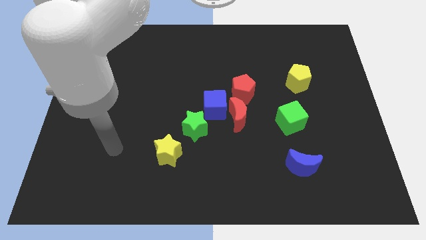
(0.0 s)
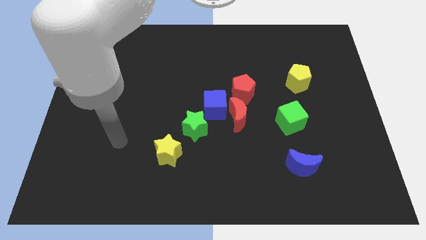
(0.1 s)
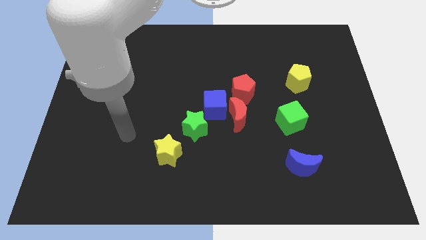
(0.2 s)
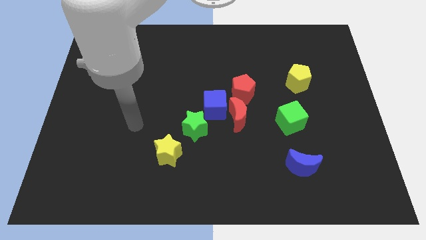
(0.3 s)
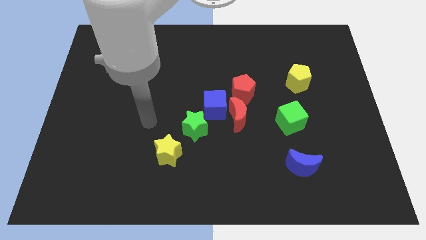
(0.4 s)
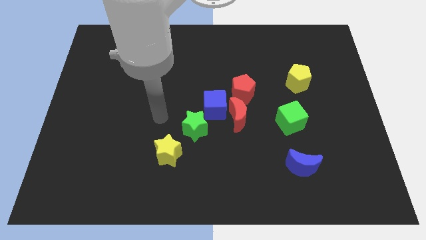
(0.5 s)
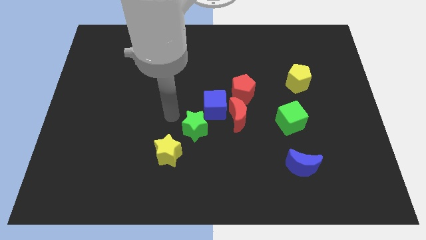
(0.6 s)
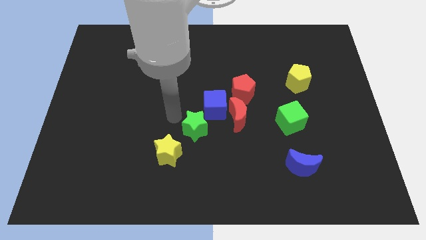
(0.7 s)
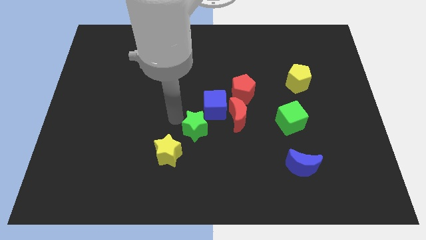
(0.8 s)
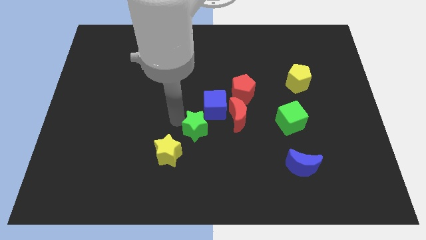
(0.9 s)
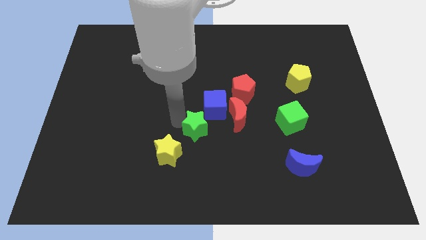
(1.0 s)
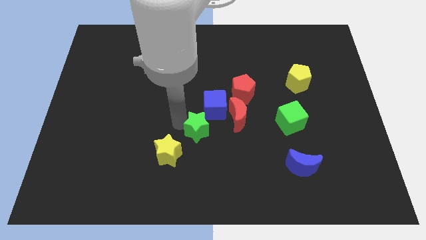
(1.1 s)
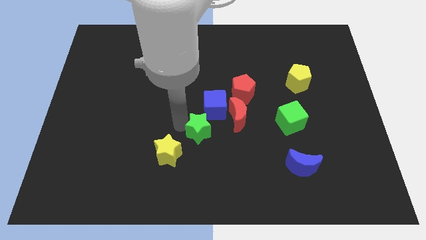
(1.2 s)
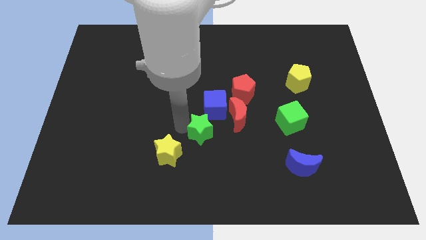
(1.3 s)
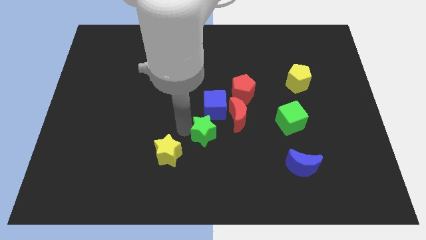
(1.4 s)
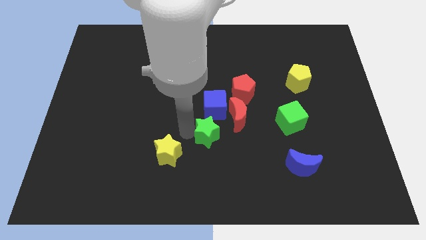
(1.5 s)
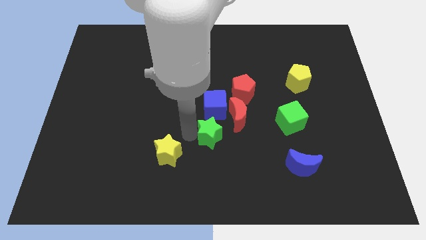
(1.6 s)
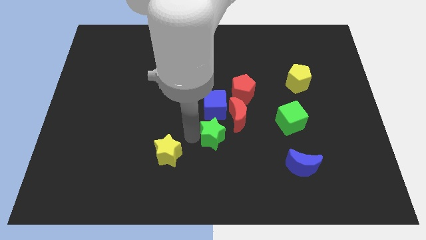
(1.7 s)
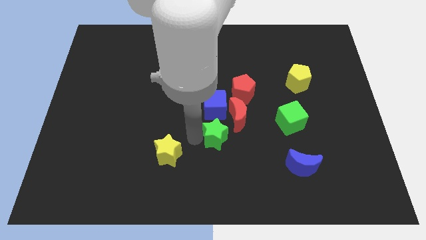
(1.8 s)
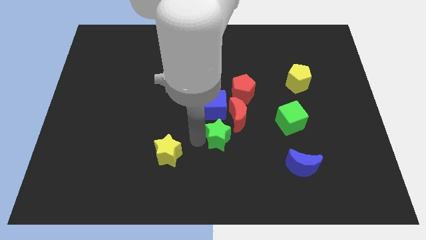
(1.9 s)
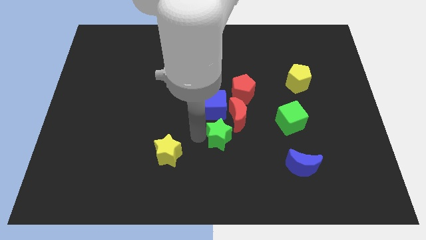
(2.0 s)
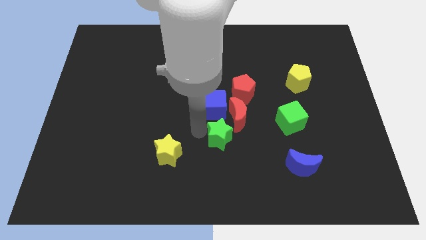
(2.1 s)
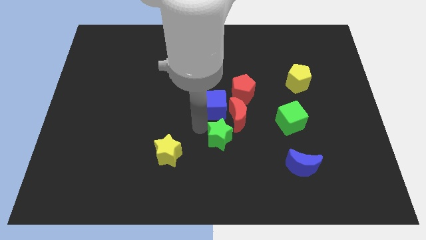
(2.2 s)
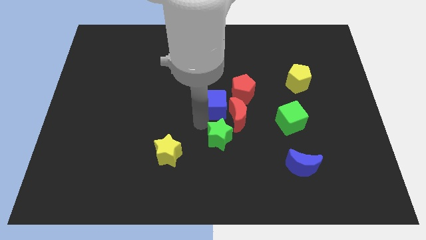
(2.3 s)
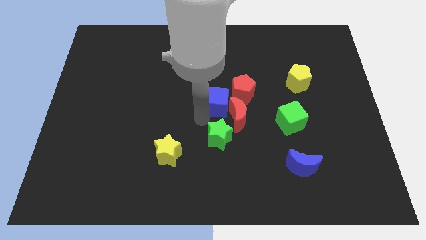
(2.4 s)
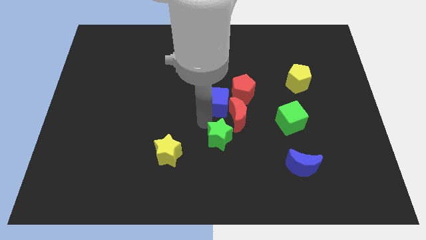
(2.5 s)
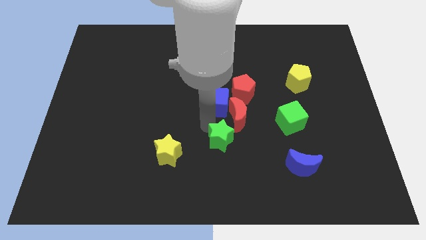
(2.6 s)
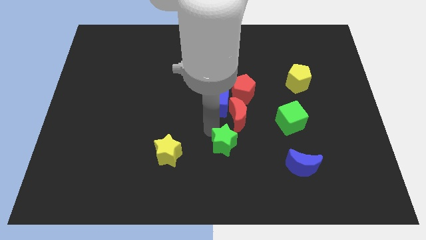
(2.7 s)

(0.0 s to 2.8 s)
push the green star a bit downwards and to the right diagonally

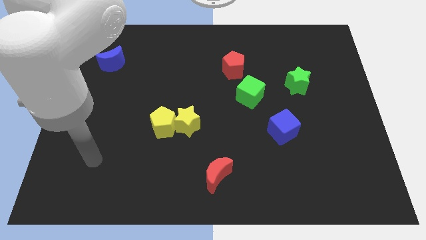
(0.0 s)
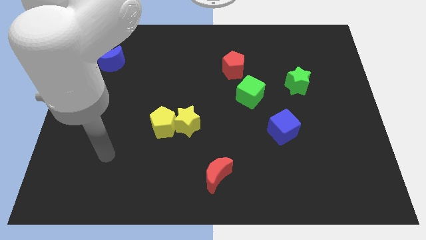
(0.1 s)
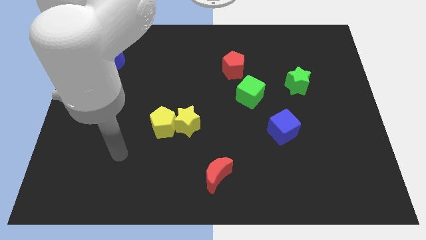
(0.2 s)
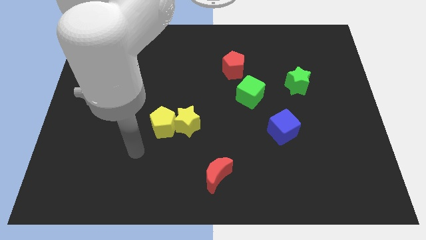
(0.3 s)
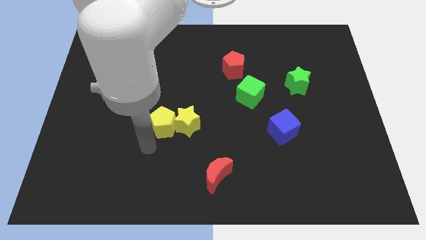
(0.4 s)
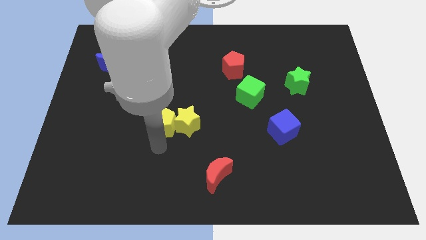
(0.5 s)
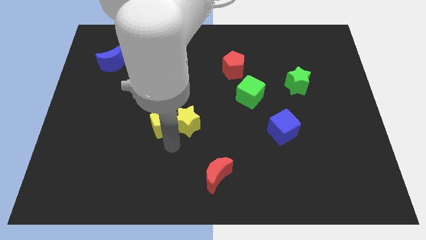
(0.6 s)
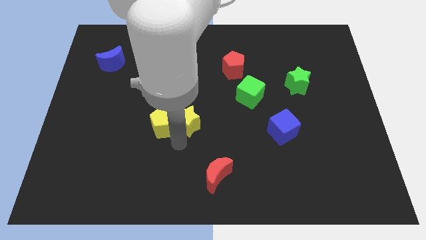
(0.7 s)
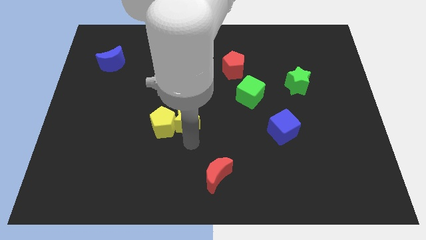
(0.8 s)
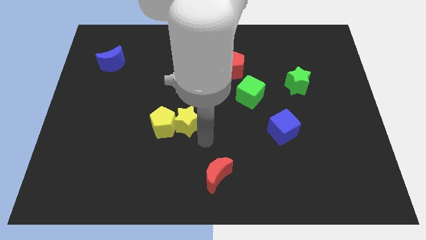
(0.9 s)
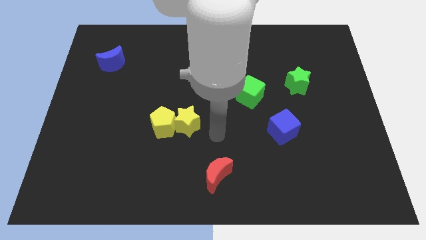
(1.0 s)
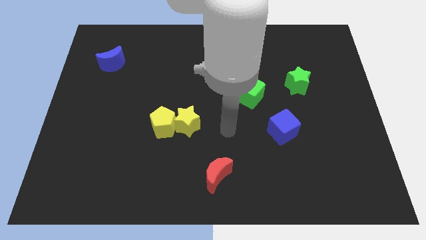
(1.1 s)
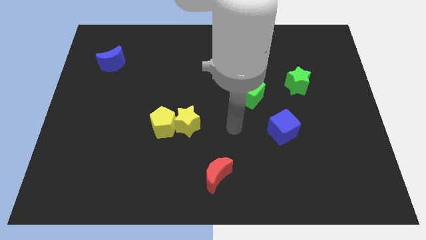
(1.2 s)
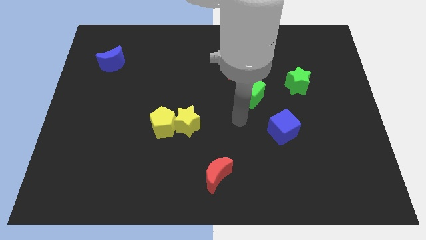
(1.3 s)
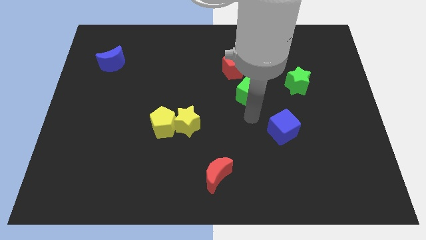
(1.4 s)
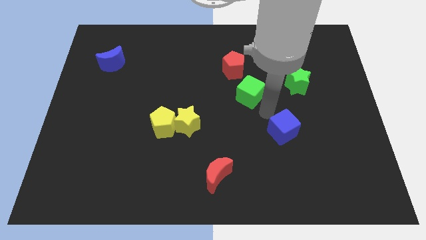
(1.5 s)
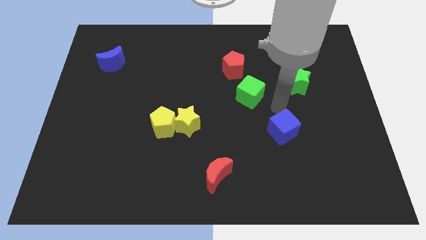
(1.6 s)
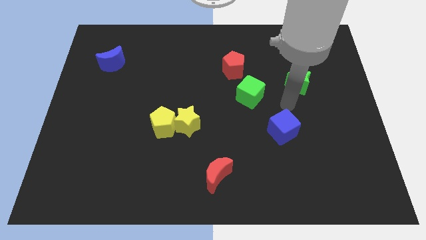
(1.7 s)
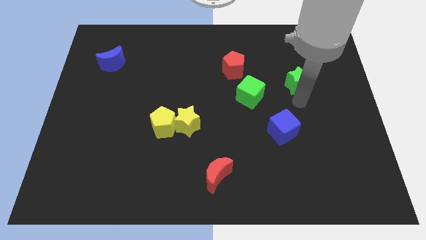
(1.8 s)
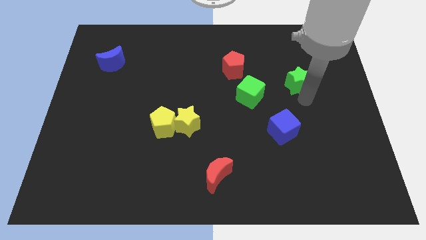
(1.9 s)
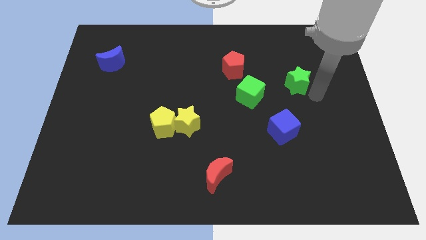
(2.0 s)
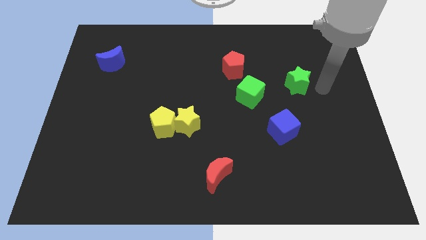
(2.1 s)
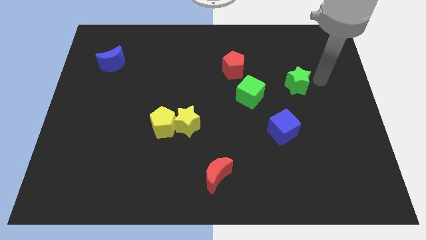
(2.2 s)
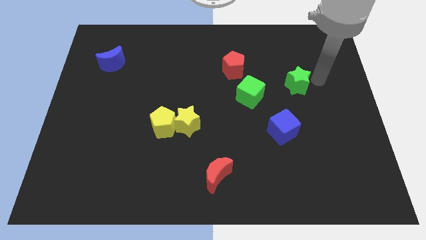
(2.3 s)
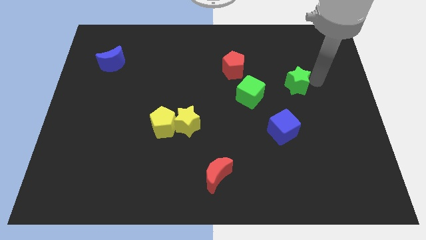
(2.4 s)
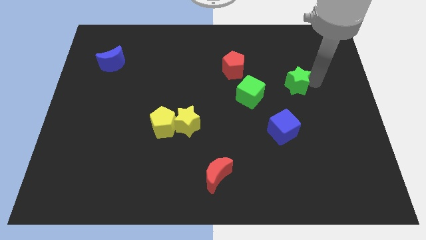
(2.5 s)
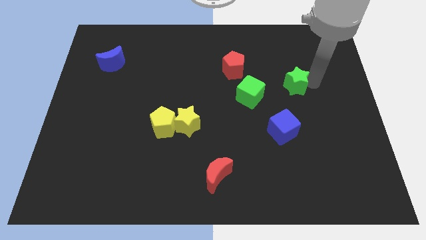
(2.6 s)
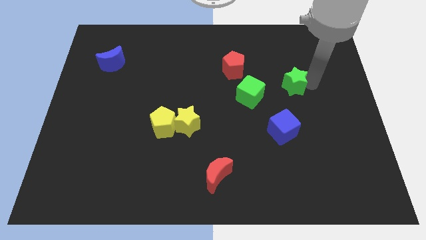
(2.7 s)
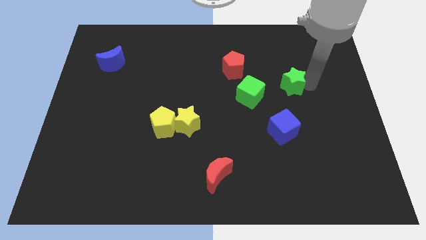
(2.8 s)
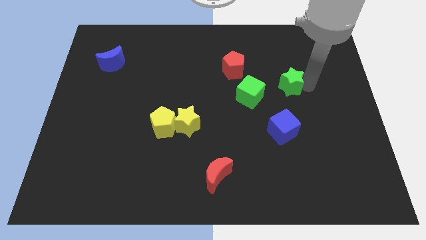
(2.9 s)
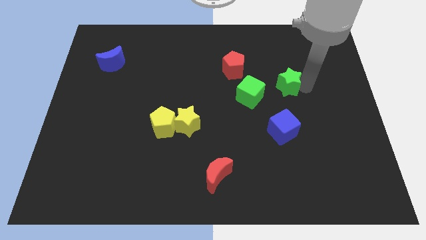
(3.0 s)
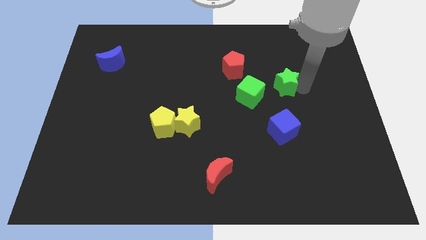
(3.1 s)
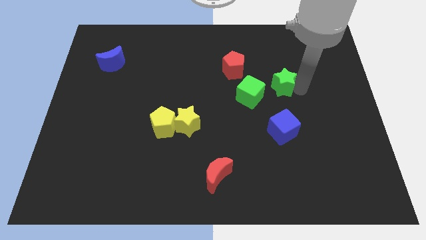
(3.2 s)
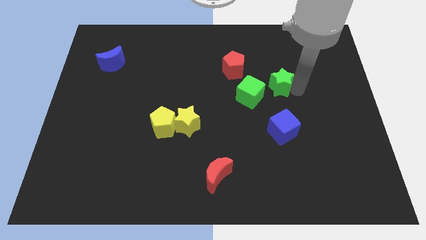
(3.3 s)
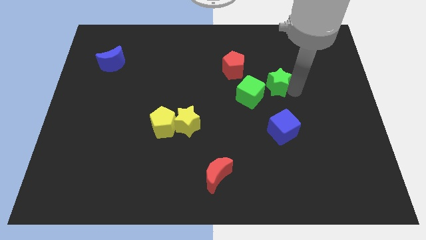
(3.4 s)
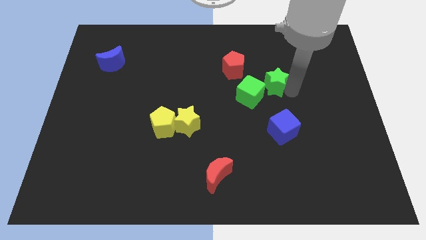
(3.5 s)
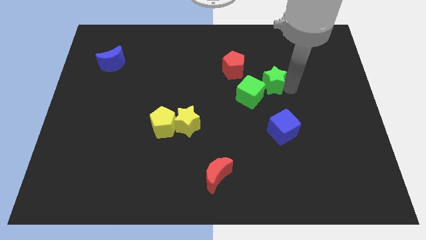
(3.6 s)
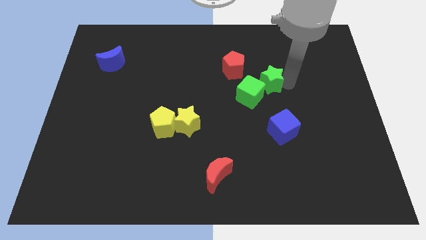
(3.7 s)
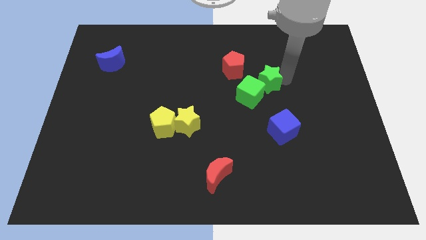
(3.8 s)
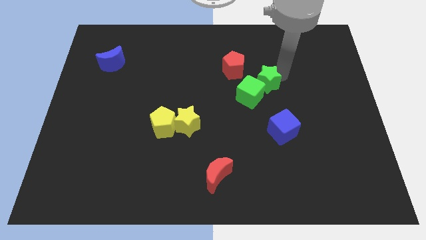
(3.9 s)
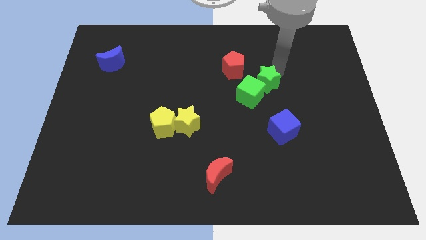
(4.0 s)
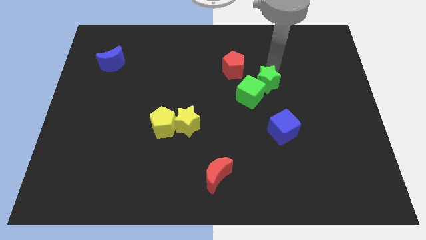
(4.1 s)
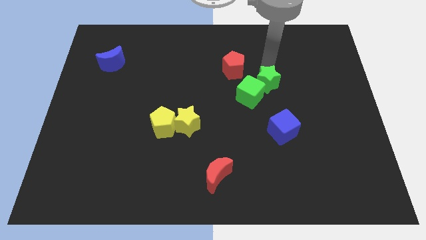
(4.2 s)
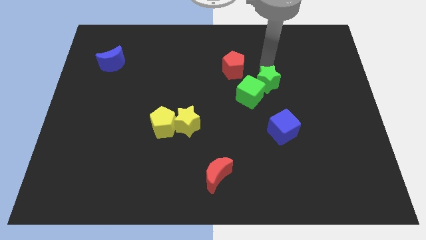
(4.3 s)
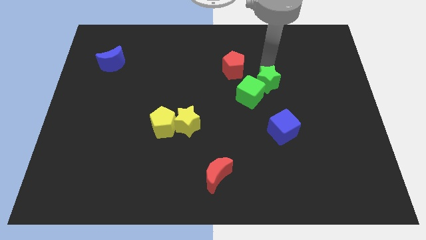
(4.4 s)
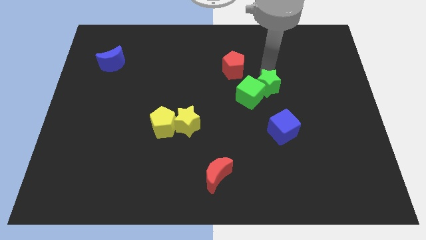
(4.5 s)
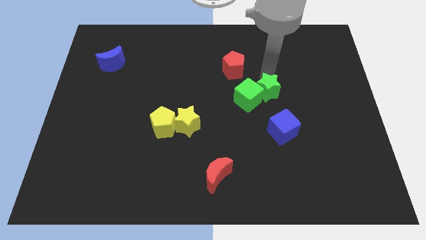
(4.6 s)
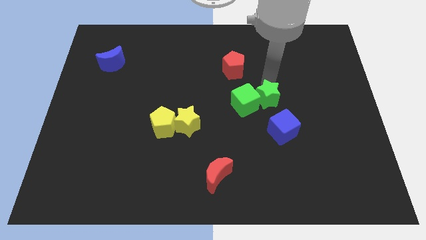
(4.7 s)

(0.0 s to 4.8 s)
slide the green star diagonally down and to the left a little
